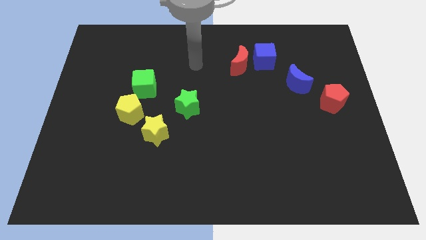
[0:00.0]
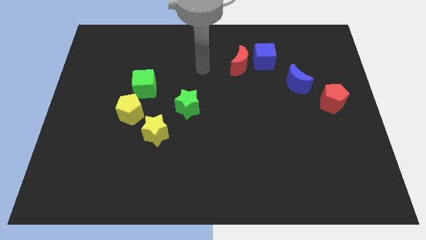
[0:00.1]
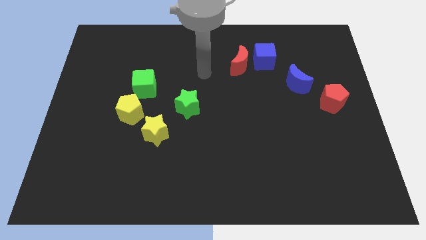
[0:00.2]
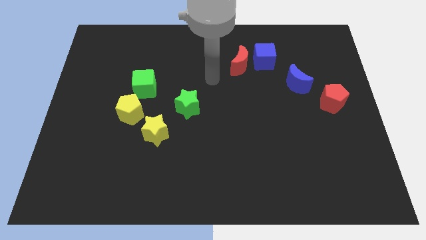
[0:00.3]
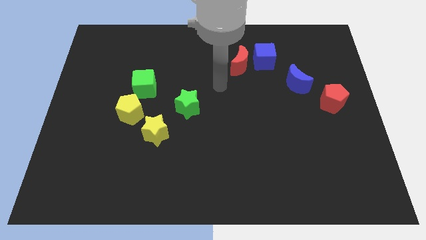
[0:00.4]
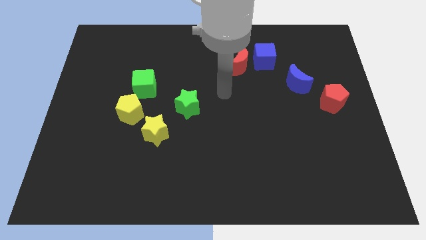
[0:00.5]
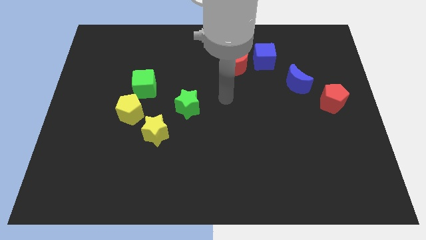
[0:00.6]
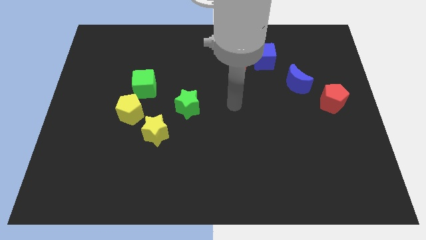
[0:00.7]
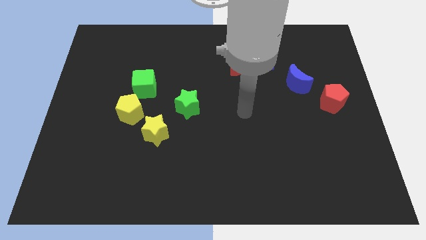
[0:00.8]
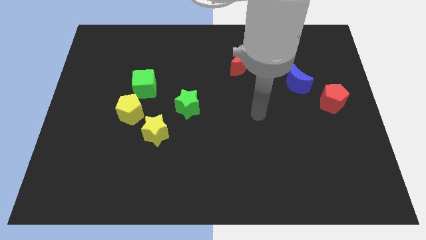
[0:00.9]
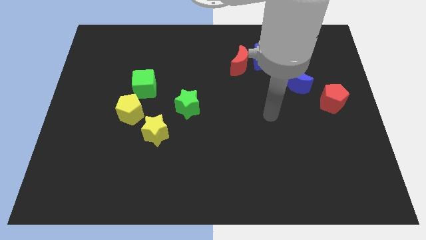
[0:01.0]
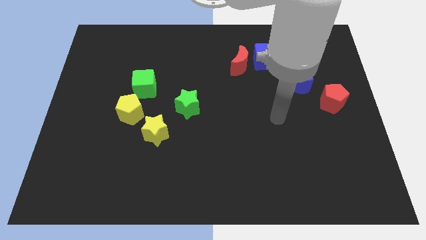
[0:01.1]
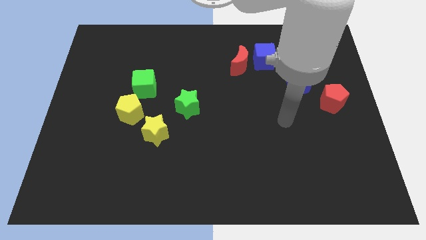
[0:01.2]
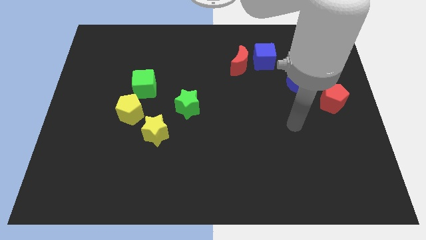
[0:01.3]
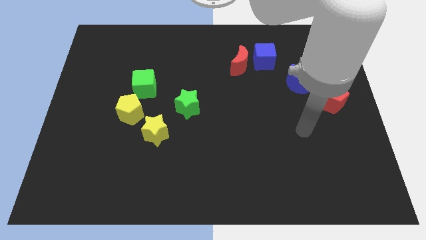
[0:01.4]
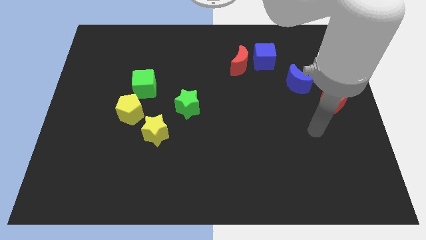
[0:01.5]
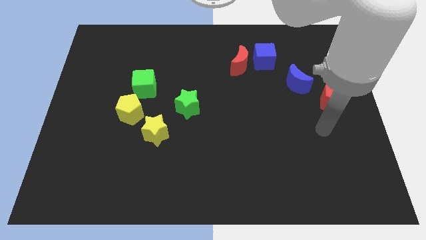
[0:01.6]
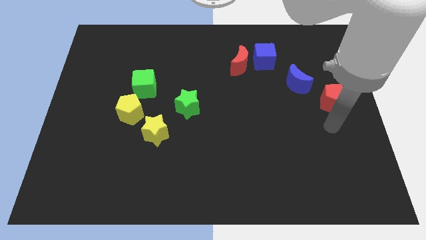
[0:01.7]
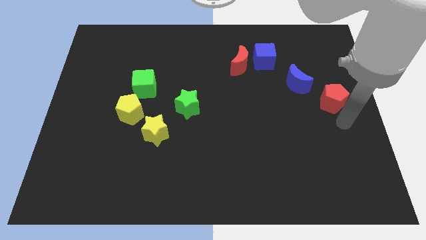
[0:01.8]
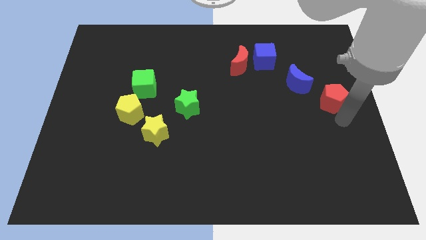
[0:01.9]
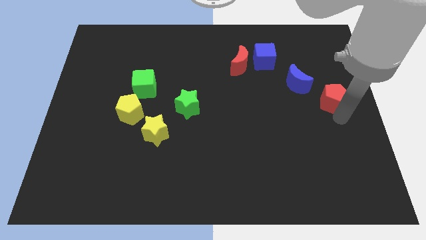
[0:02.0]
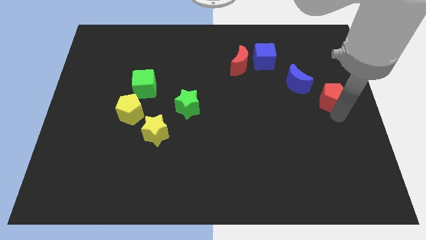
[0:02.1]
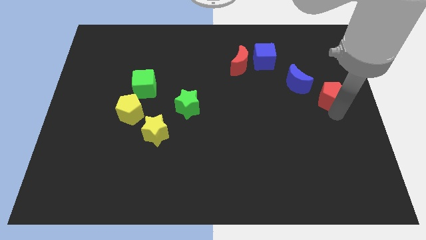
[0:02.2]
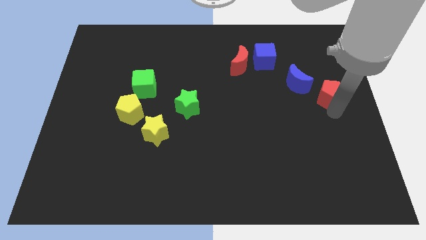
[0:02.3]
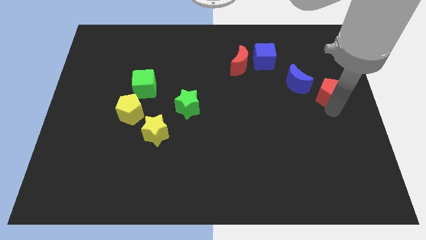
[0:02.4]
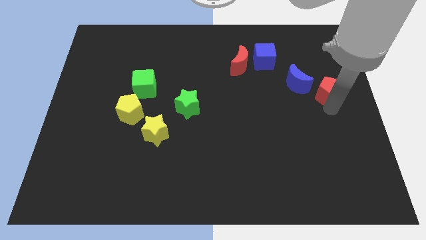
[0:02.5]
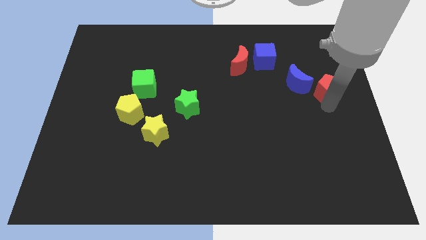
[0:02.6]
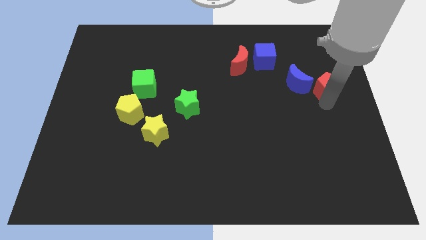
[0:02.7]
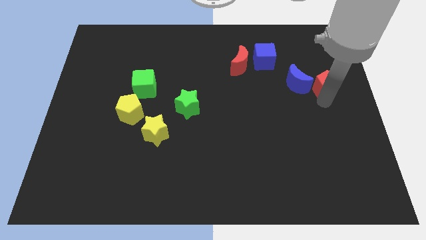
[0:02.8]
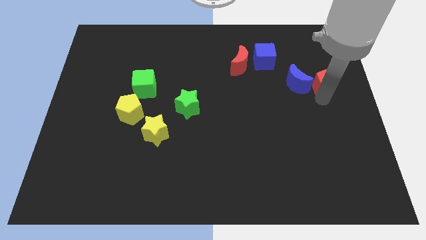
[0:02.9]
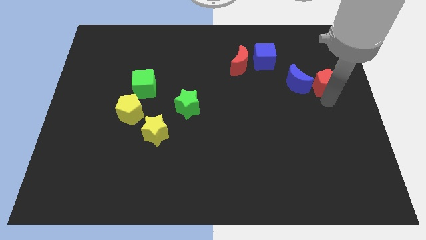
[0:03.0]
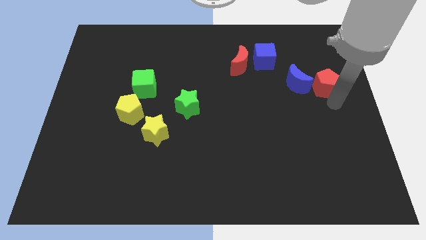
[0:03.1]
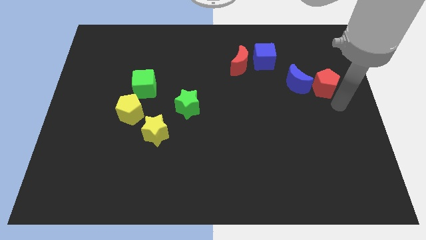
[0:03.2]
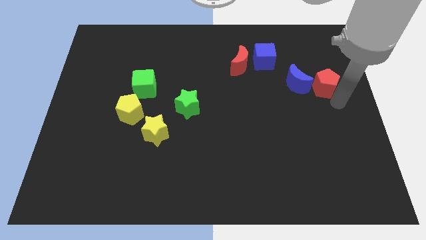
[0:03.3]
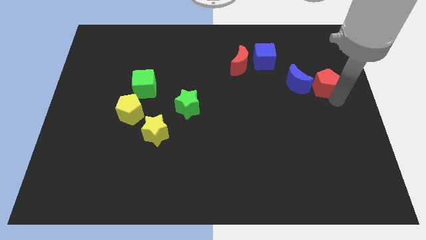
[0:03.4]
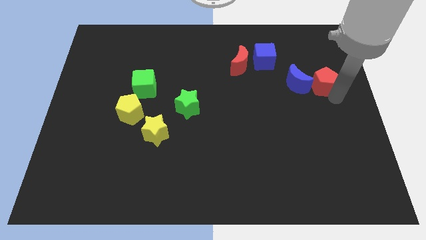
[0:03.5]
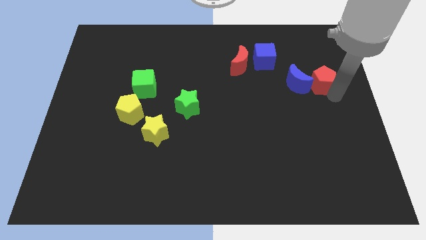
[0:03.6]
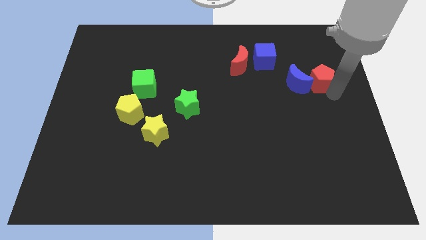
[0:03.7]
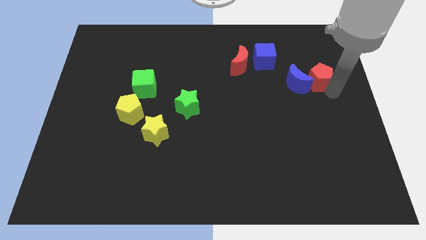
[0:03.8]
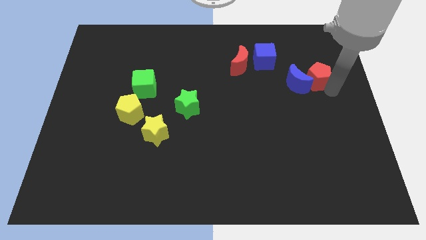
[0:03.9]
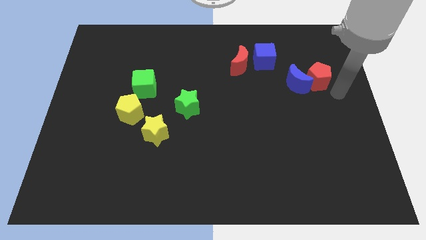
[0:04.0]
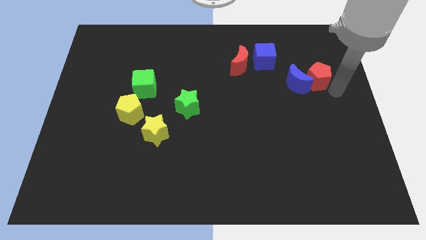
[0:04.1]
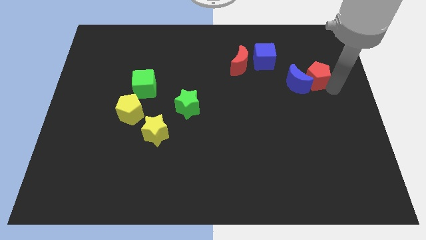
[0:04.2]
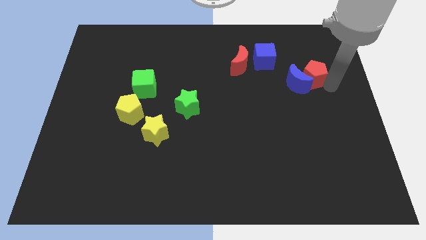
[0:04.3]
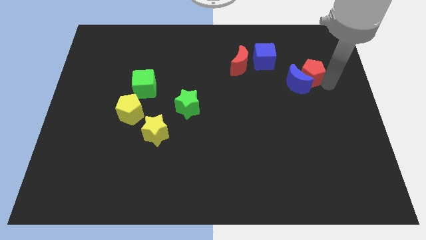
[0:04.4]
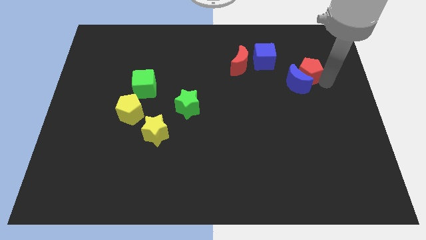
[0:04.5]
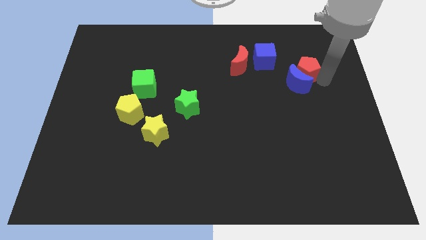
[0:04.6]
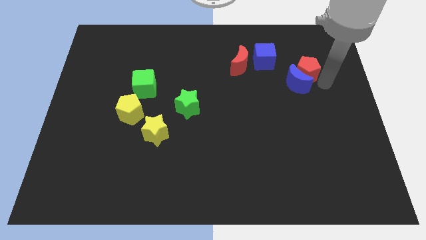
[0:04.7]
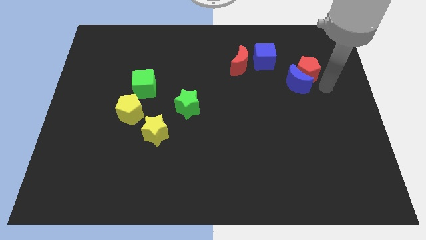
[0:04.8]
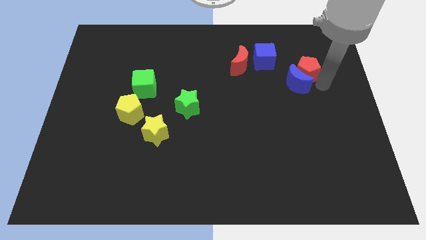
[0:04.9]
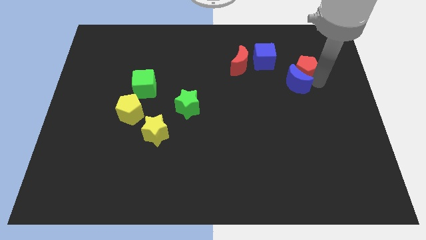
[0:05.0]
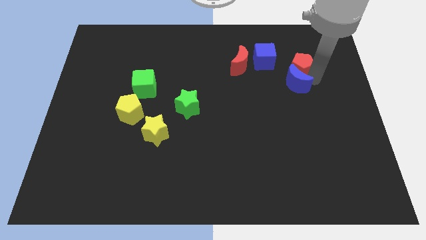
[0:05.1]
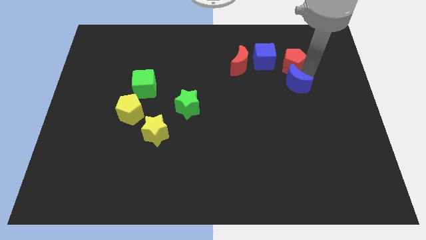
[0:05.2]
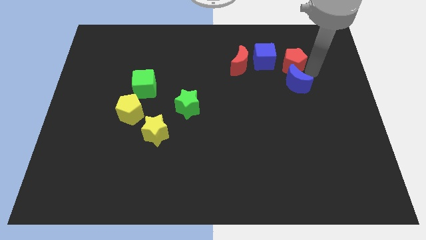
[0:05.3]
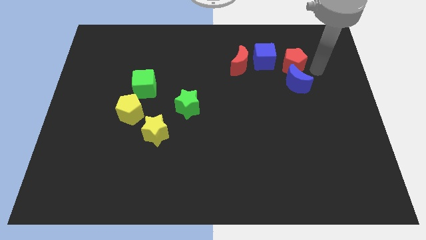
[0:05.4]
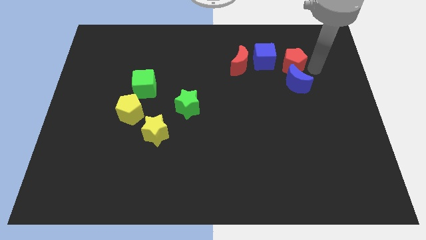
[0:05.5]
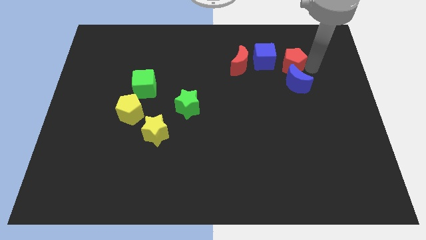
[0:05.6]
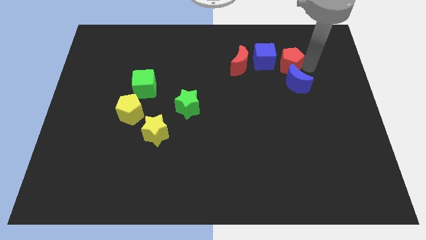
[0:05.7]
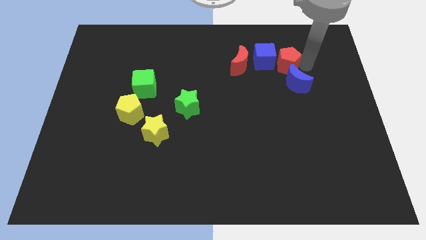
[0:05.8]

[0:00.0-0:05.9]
put the red pentagon next to the blue cube

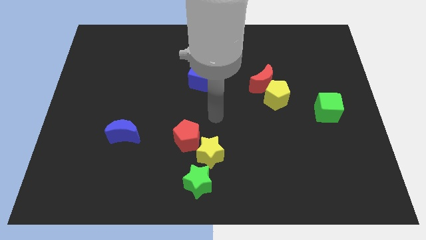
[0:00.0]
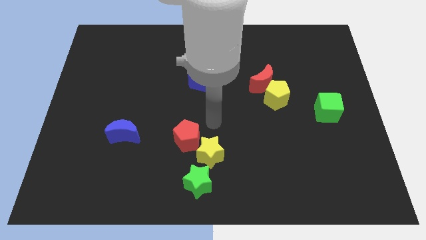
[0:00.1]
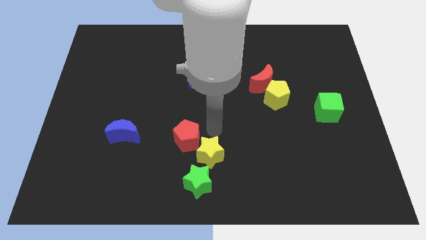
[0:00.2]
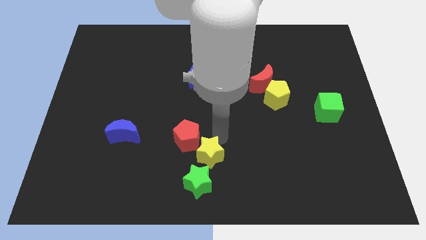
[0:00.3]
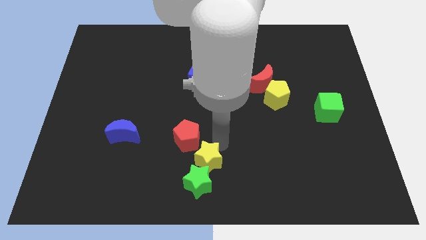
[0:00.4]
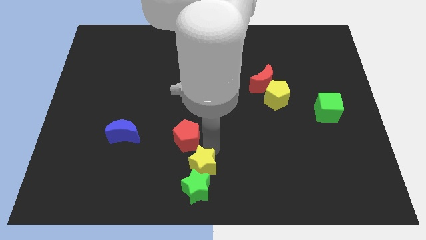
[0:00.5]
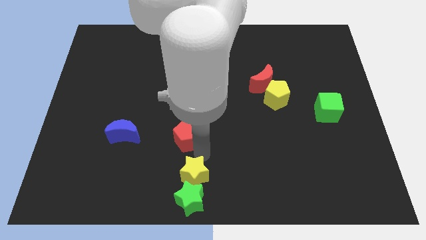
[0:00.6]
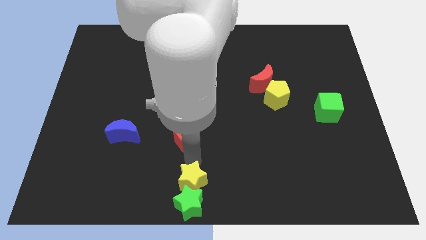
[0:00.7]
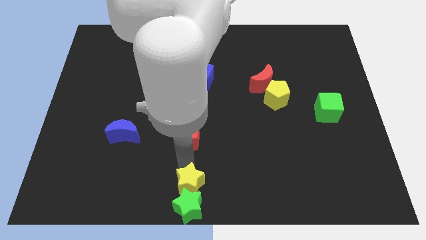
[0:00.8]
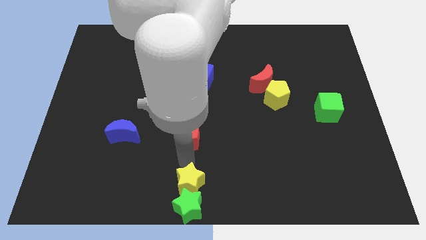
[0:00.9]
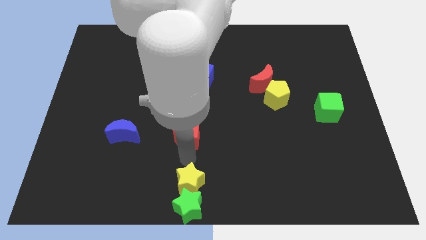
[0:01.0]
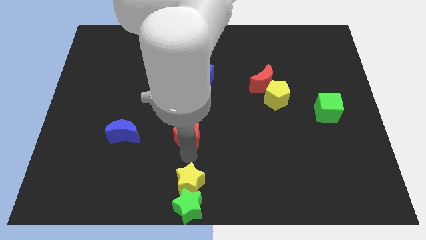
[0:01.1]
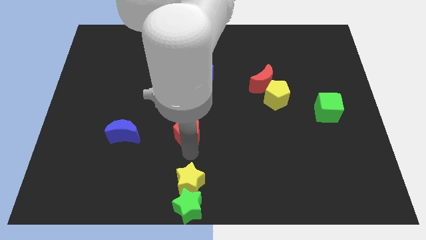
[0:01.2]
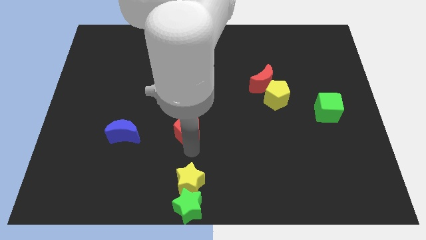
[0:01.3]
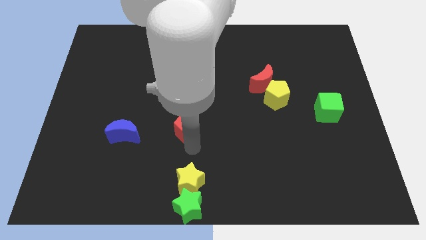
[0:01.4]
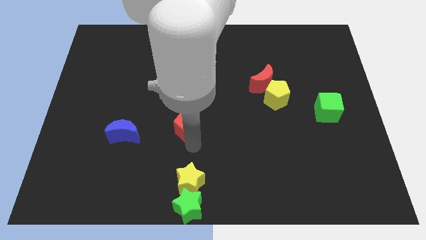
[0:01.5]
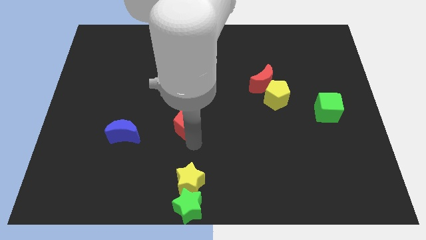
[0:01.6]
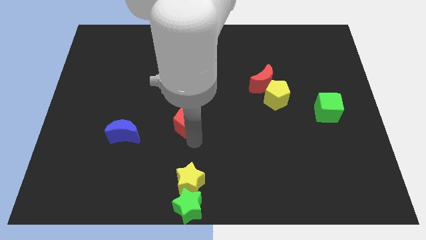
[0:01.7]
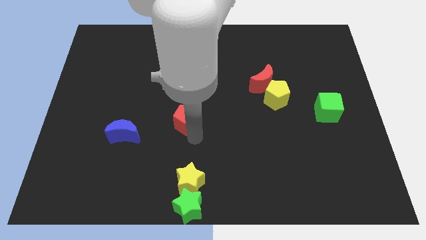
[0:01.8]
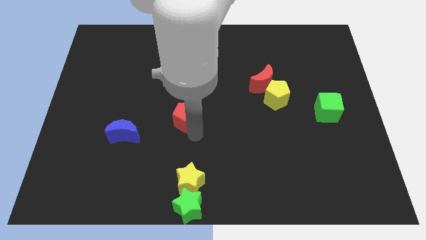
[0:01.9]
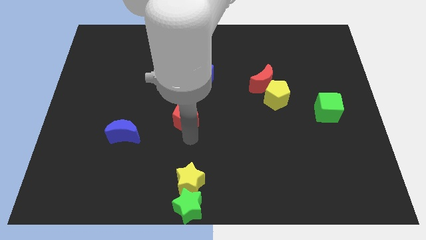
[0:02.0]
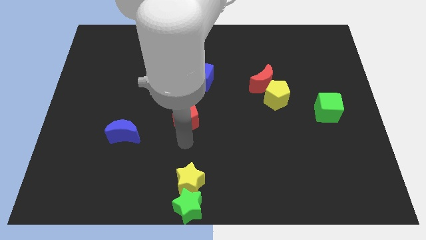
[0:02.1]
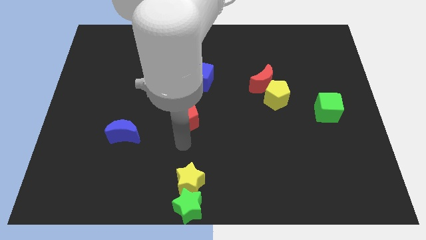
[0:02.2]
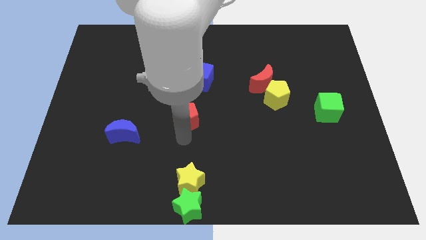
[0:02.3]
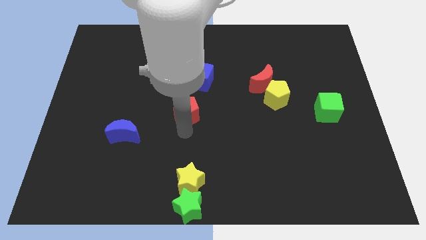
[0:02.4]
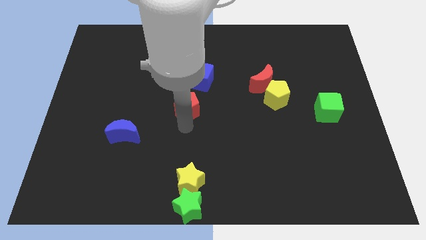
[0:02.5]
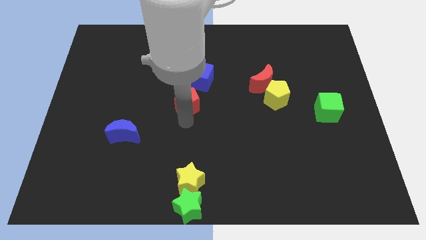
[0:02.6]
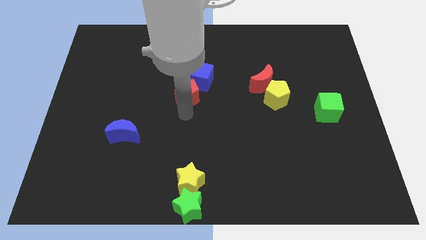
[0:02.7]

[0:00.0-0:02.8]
move the red pentagon towards the blue cube
